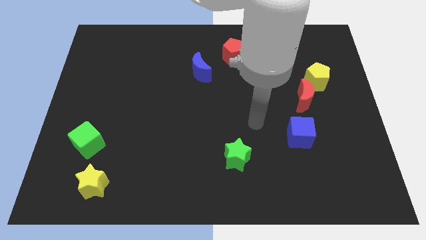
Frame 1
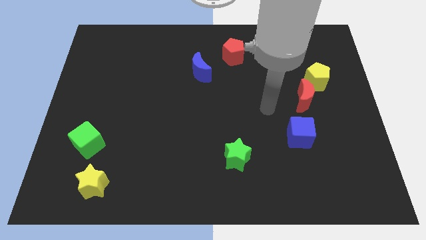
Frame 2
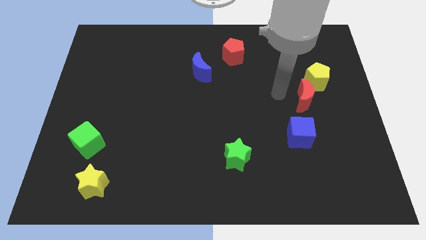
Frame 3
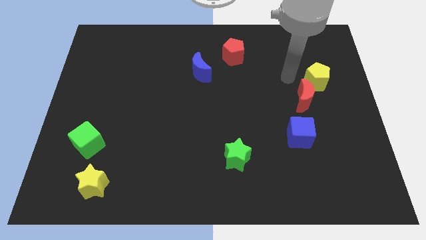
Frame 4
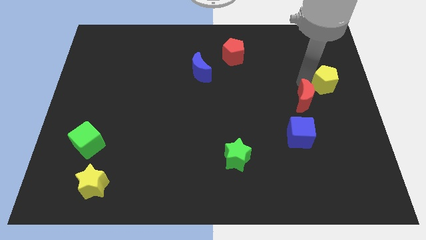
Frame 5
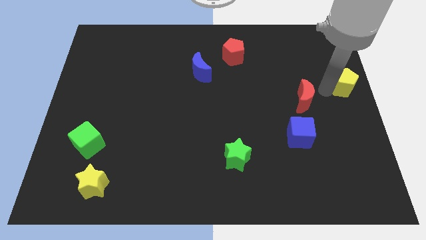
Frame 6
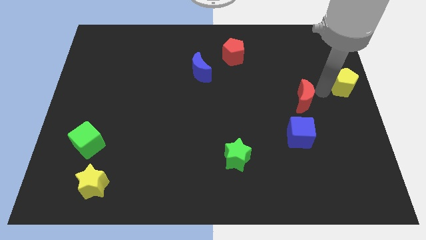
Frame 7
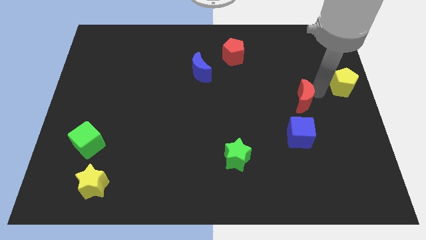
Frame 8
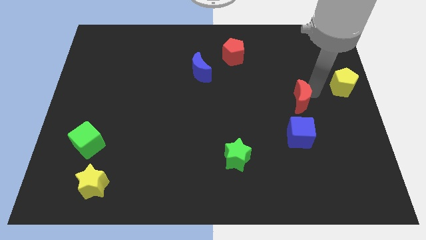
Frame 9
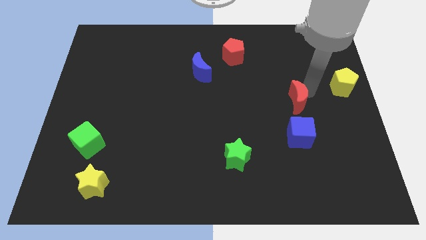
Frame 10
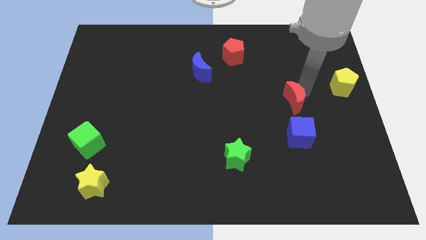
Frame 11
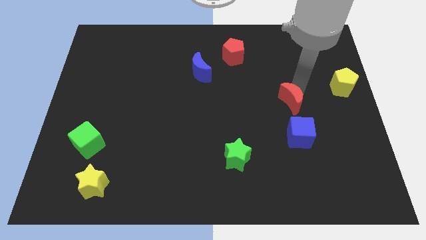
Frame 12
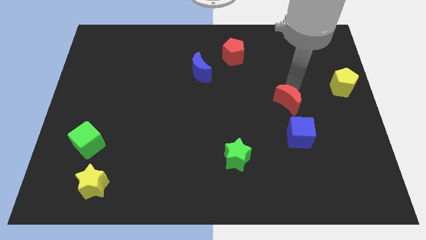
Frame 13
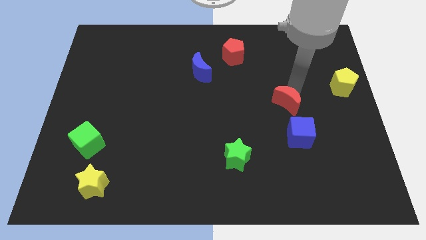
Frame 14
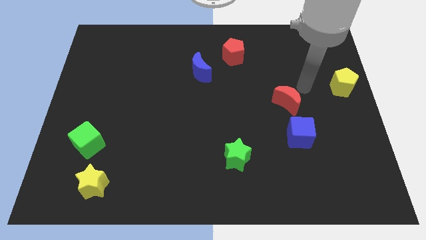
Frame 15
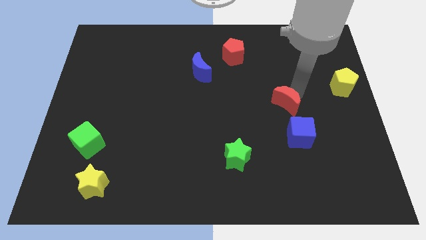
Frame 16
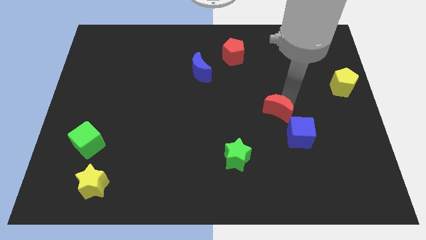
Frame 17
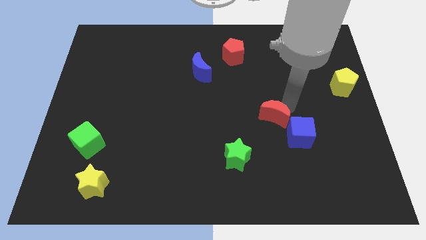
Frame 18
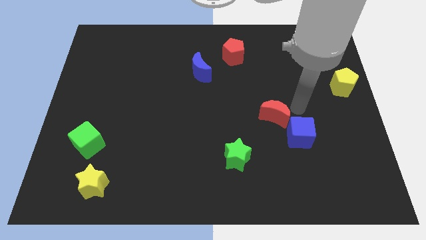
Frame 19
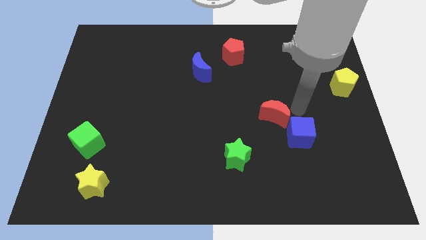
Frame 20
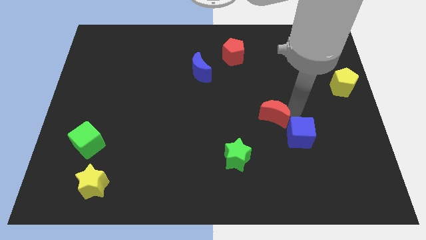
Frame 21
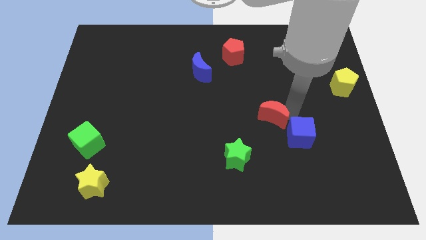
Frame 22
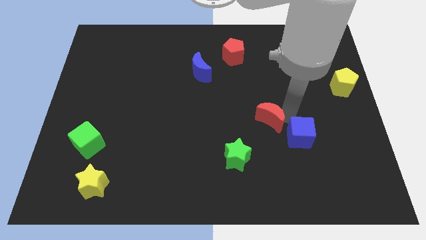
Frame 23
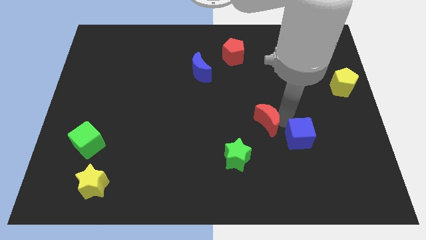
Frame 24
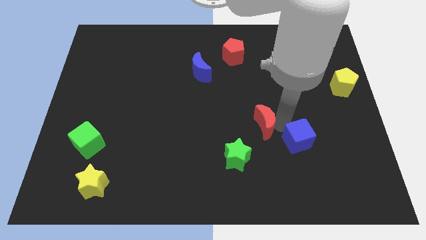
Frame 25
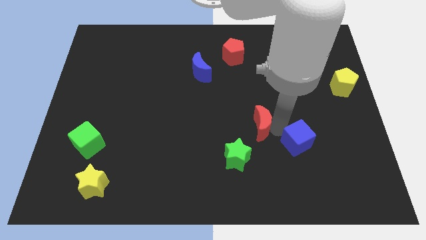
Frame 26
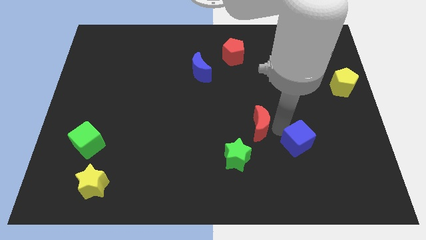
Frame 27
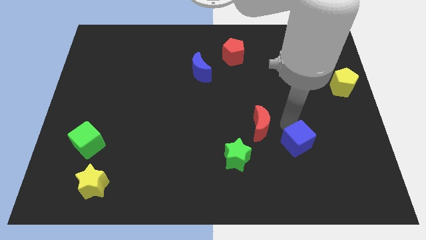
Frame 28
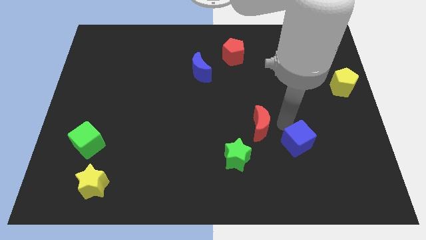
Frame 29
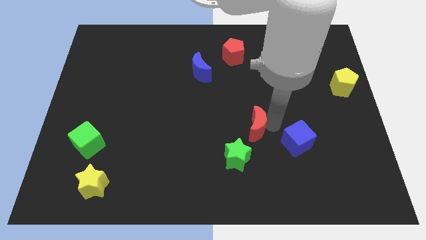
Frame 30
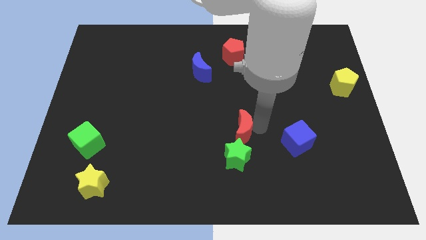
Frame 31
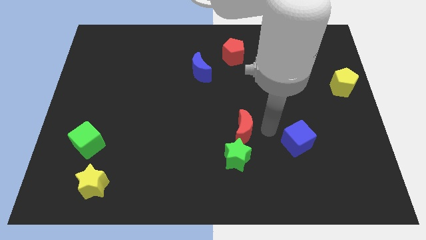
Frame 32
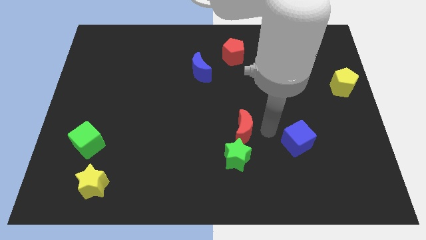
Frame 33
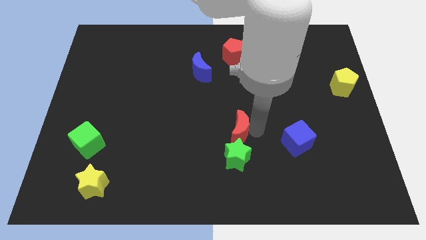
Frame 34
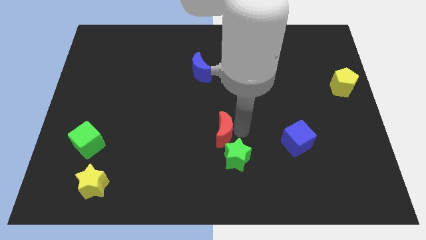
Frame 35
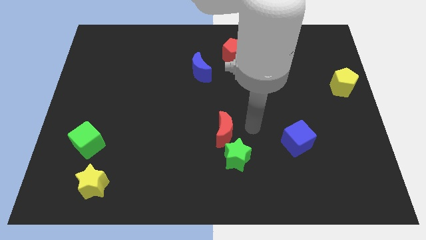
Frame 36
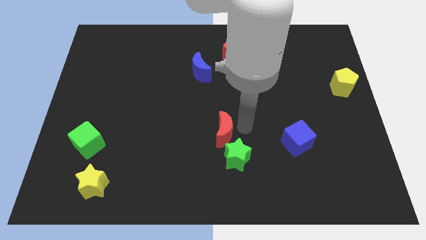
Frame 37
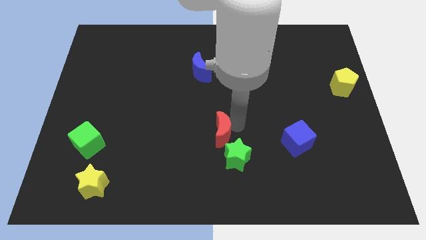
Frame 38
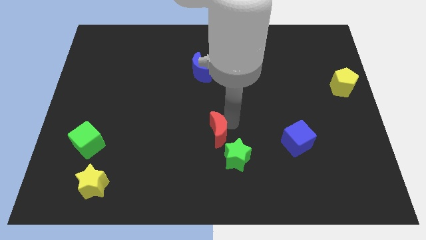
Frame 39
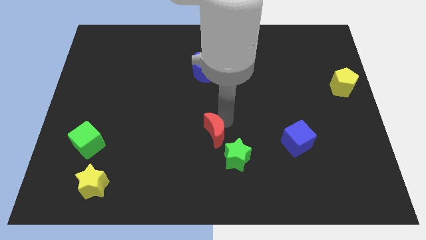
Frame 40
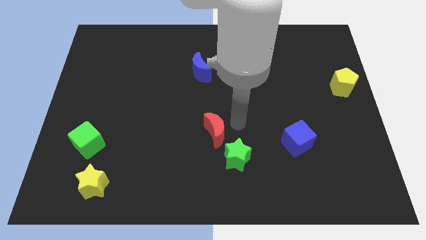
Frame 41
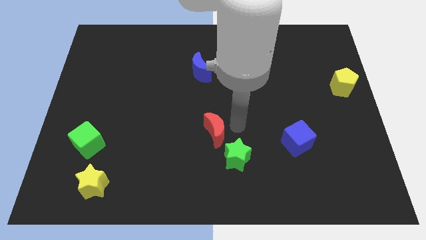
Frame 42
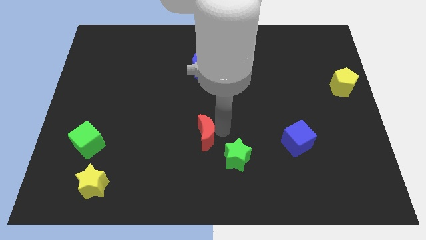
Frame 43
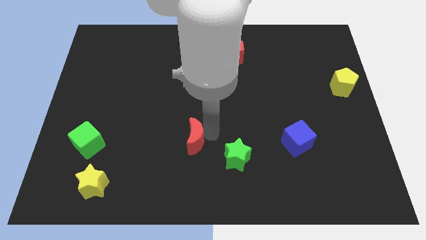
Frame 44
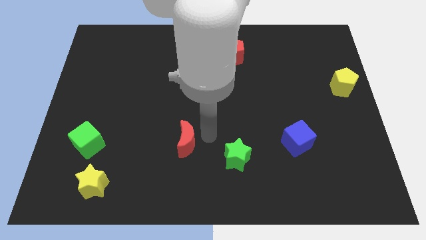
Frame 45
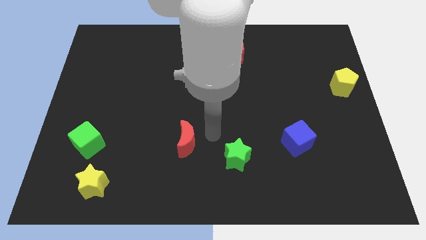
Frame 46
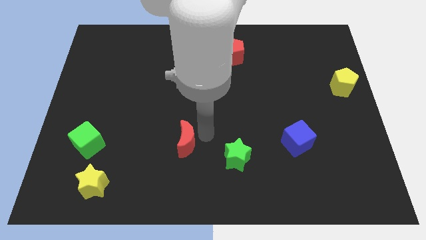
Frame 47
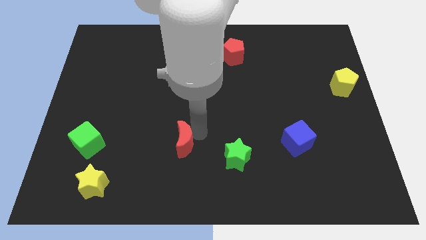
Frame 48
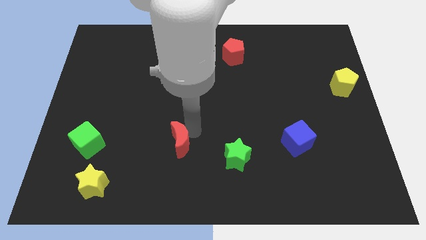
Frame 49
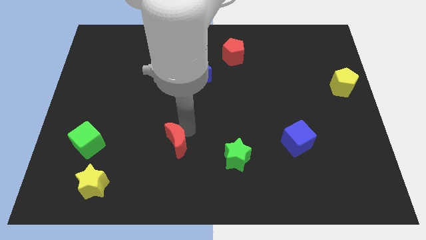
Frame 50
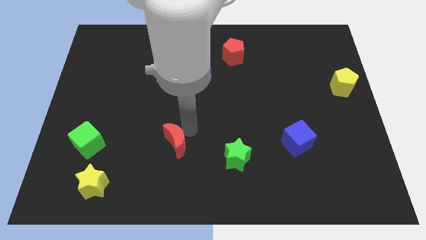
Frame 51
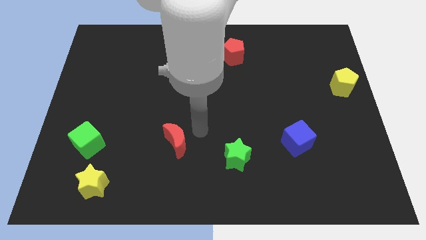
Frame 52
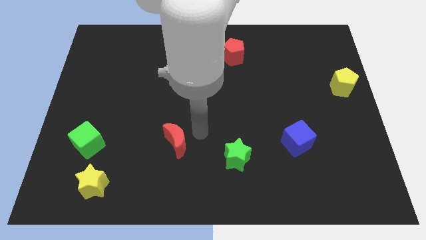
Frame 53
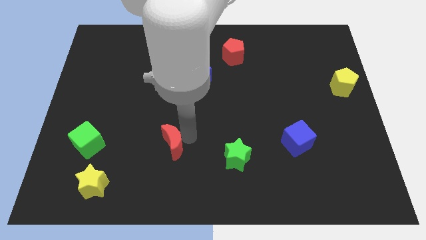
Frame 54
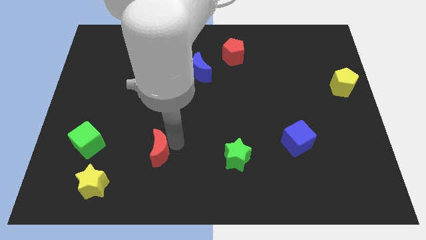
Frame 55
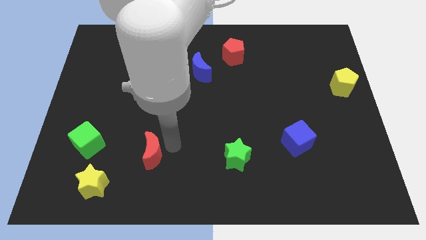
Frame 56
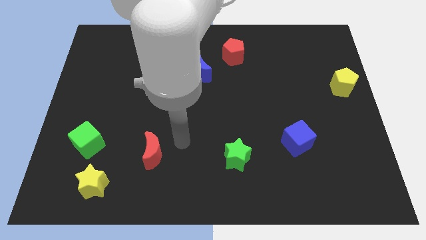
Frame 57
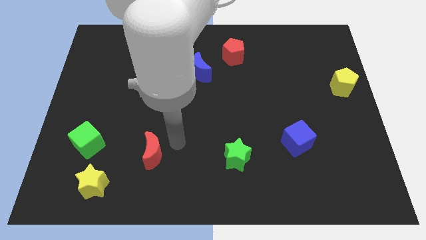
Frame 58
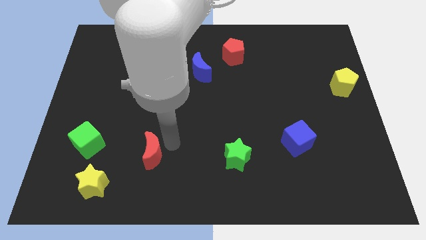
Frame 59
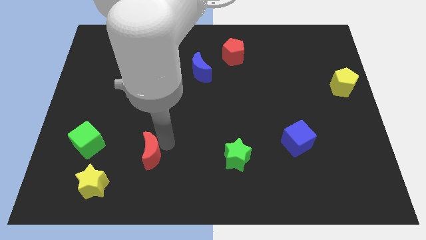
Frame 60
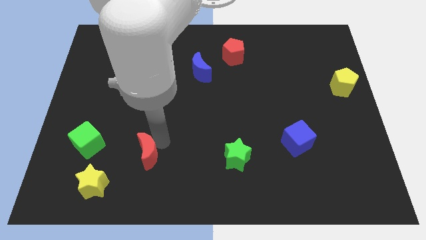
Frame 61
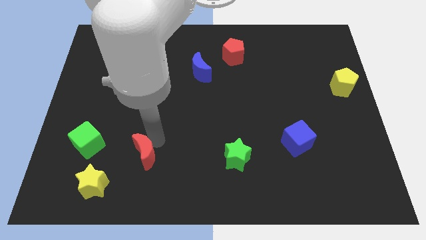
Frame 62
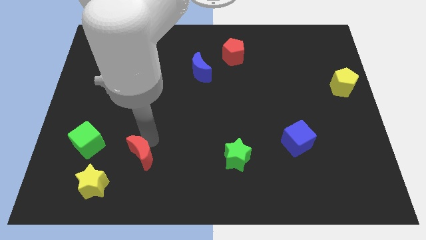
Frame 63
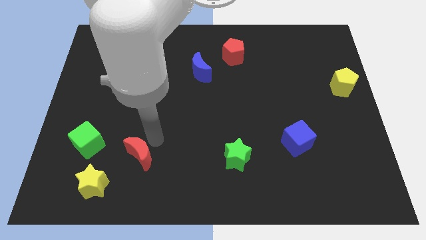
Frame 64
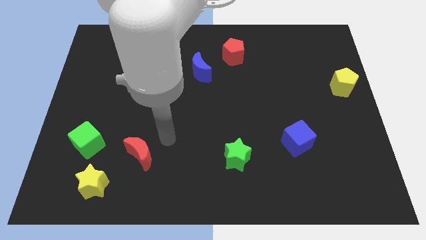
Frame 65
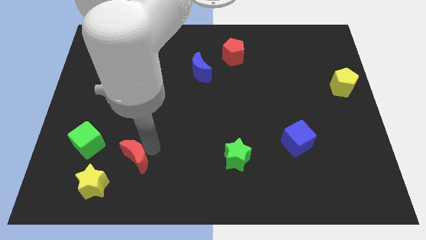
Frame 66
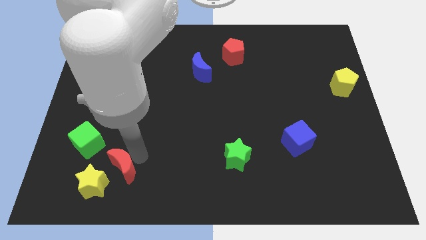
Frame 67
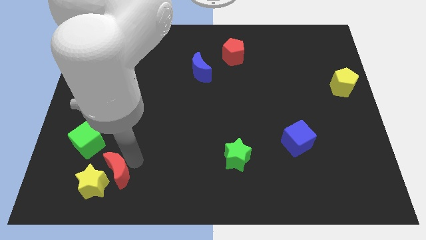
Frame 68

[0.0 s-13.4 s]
put the red moon close to the yellow star
